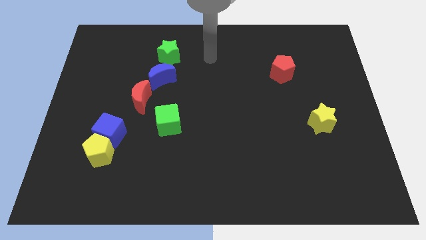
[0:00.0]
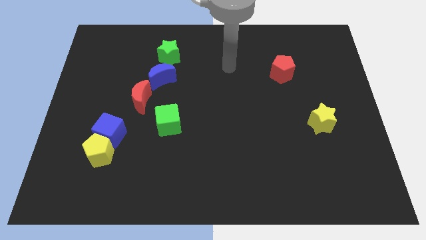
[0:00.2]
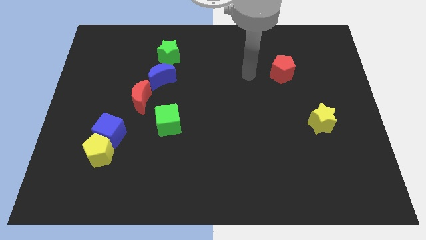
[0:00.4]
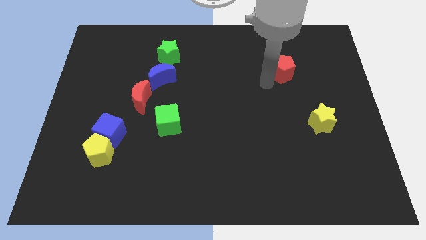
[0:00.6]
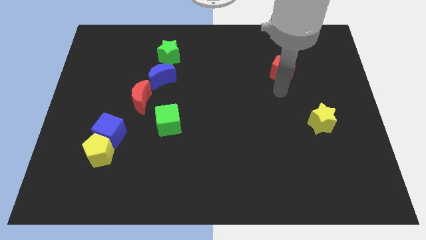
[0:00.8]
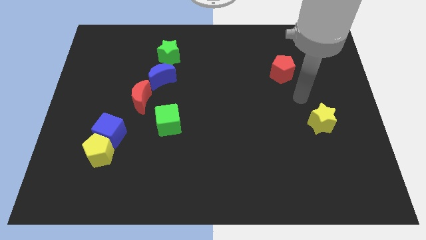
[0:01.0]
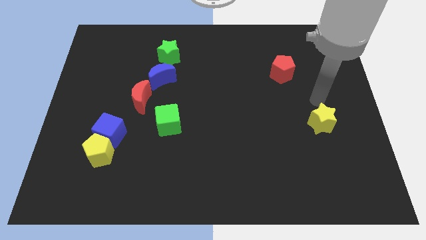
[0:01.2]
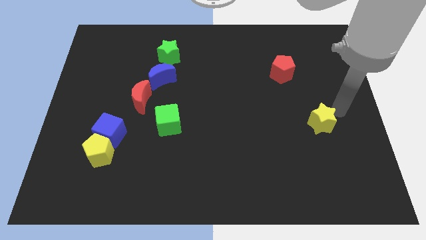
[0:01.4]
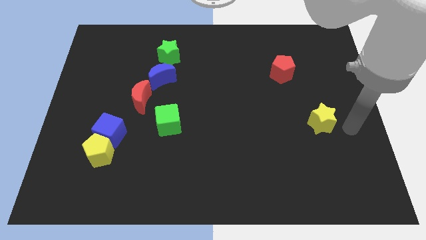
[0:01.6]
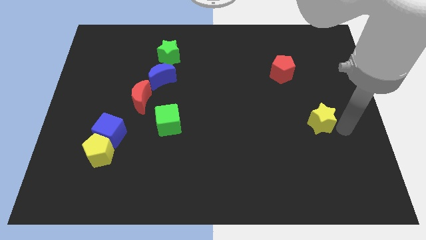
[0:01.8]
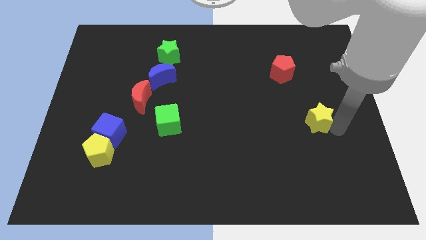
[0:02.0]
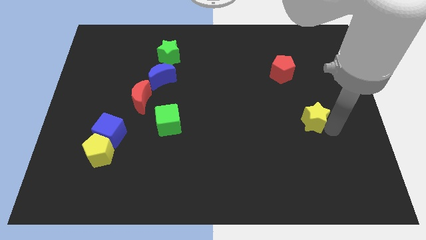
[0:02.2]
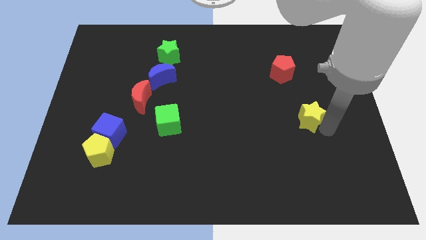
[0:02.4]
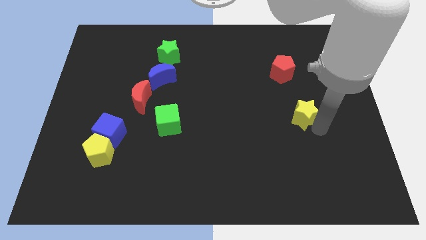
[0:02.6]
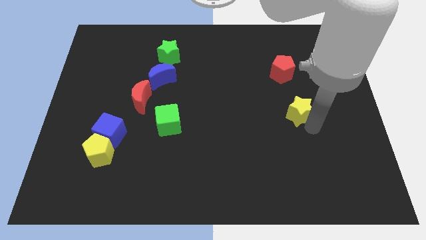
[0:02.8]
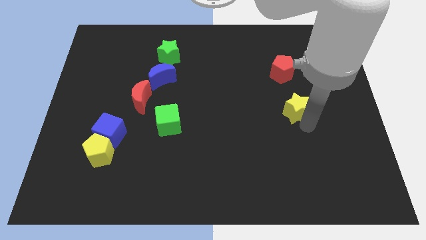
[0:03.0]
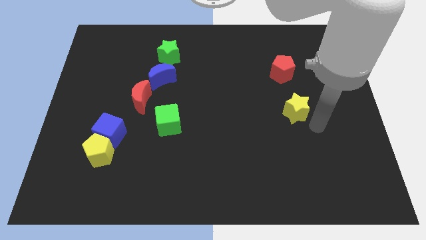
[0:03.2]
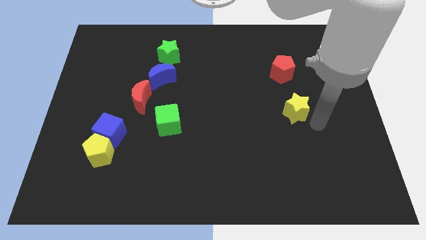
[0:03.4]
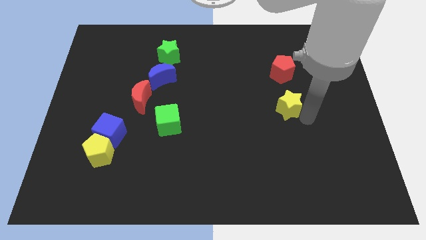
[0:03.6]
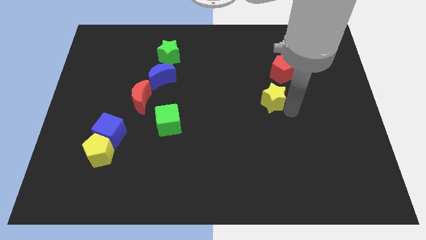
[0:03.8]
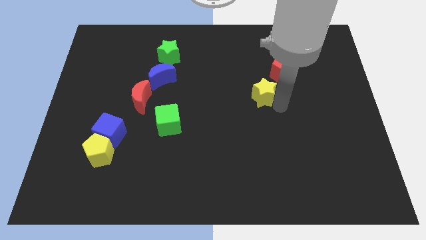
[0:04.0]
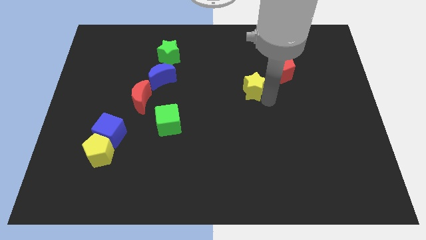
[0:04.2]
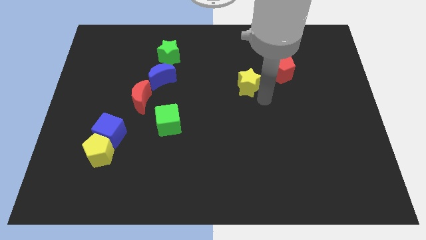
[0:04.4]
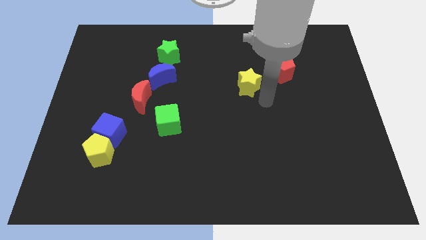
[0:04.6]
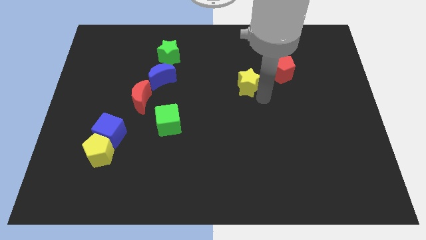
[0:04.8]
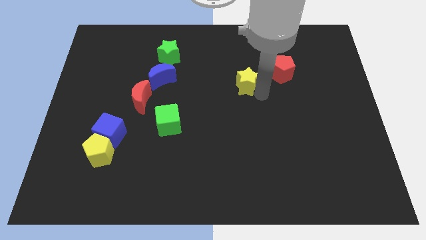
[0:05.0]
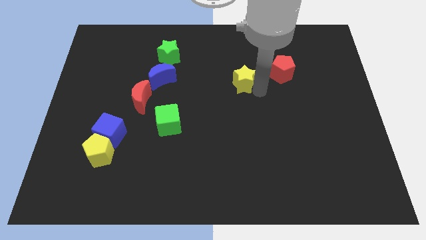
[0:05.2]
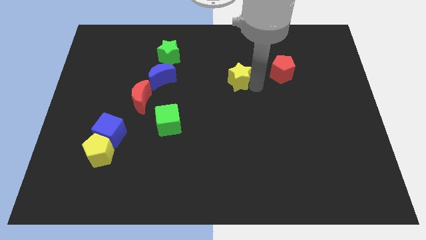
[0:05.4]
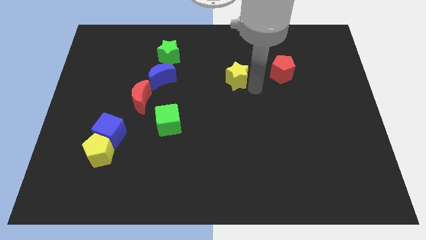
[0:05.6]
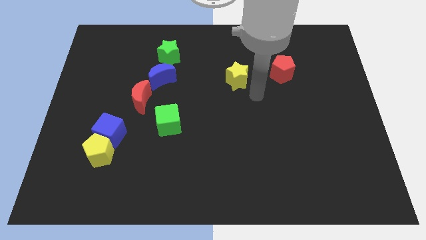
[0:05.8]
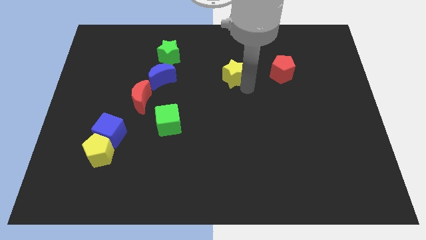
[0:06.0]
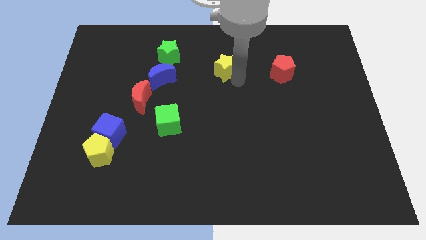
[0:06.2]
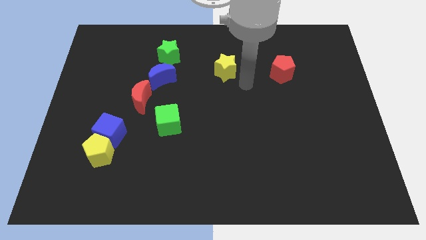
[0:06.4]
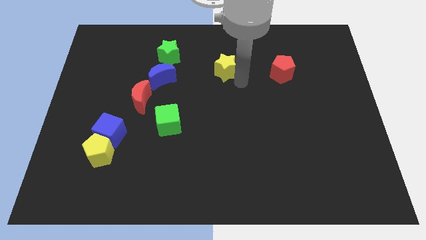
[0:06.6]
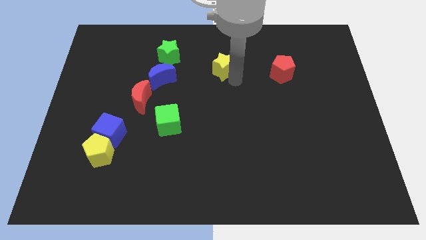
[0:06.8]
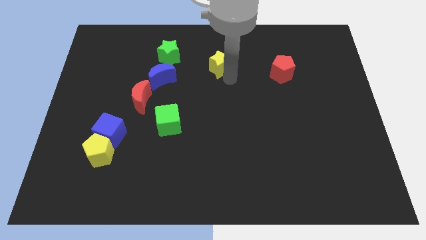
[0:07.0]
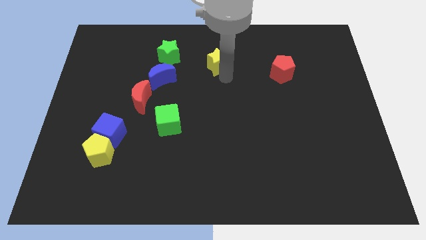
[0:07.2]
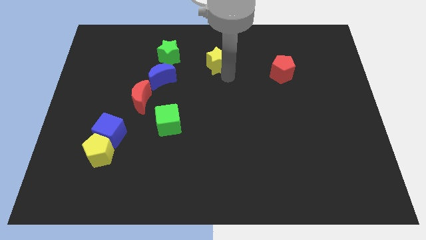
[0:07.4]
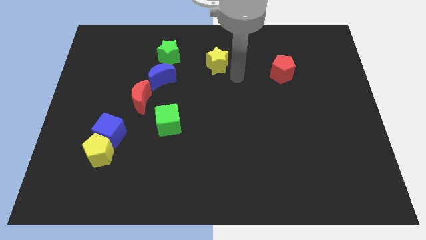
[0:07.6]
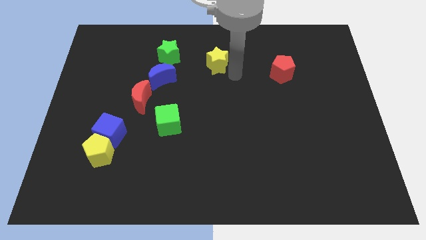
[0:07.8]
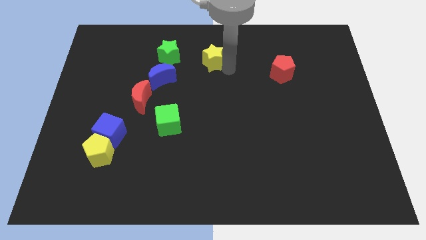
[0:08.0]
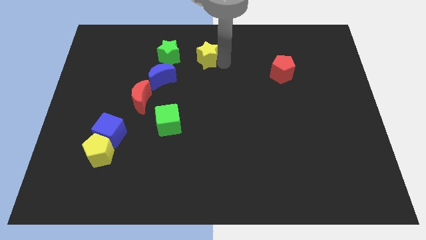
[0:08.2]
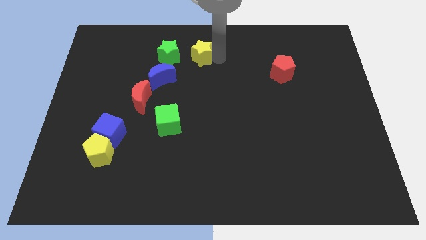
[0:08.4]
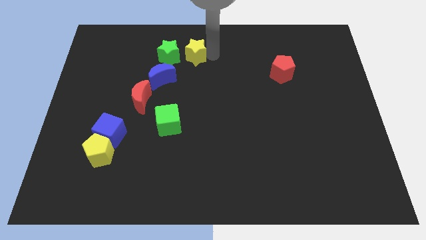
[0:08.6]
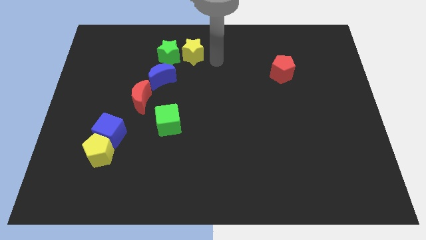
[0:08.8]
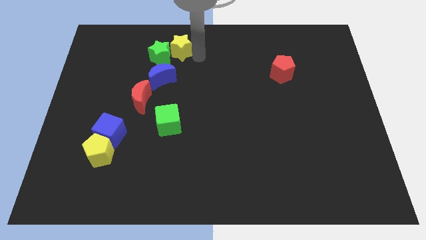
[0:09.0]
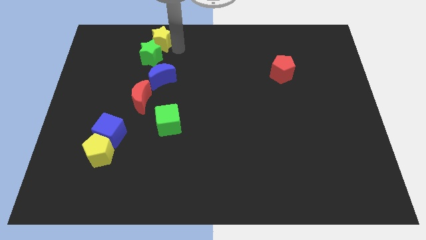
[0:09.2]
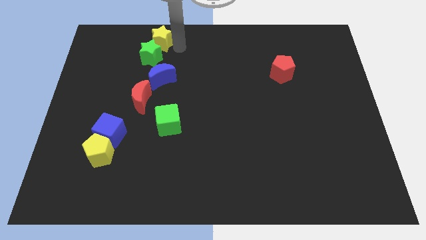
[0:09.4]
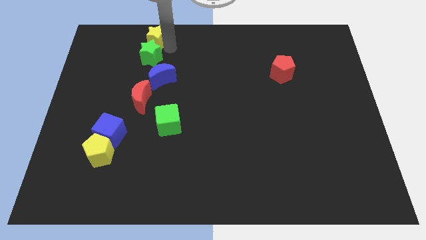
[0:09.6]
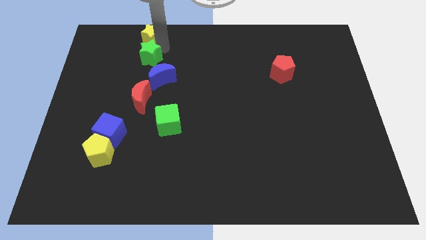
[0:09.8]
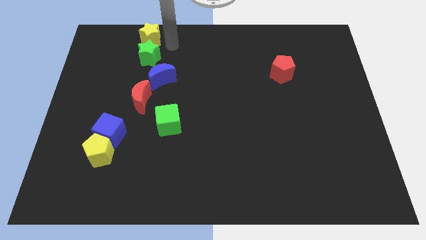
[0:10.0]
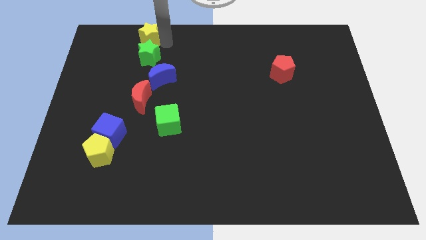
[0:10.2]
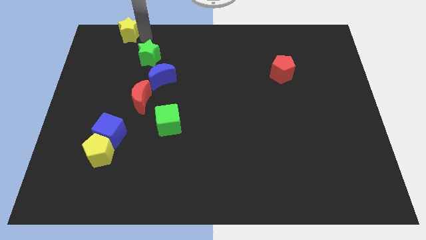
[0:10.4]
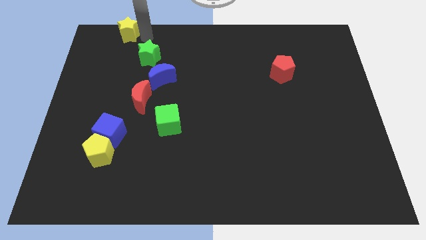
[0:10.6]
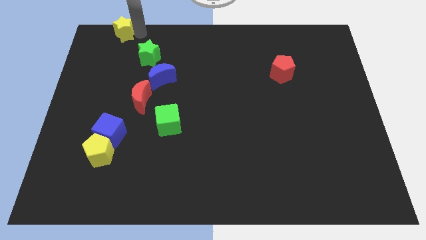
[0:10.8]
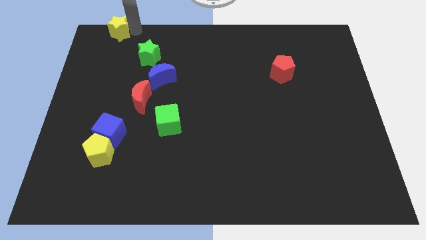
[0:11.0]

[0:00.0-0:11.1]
slide the yellow star to the top left of the board
